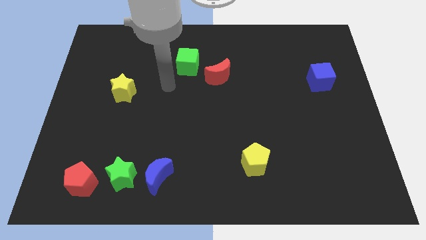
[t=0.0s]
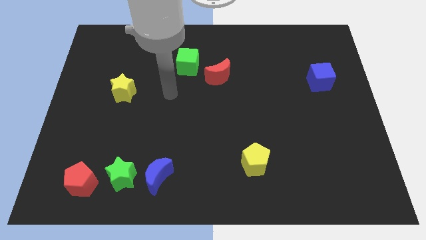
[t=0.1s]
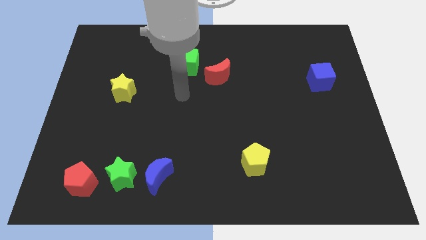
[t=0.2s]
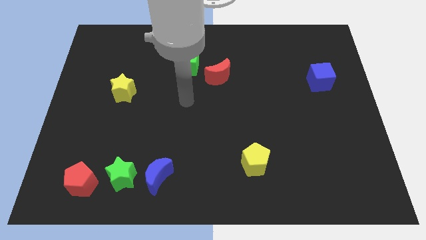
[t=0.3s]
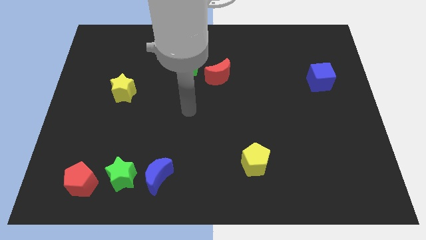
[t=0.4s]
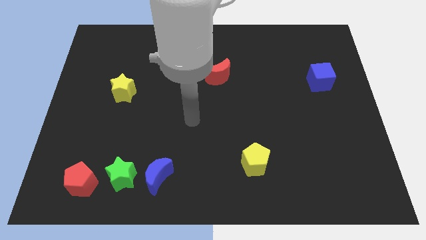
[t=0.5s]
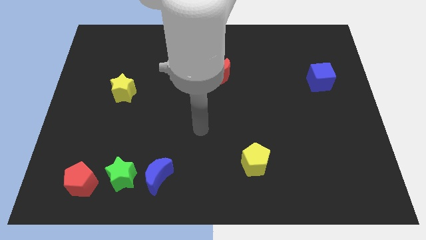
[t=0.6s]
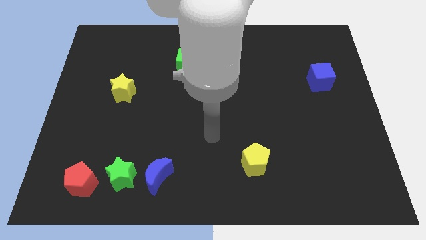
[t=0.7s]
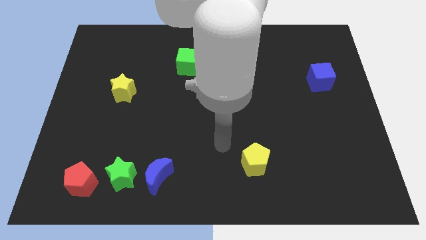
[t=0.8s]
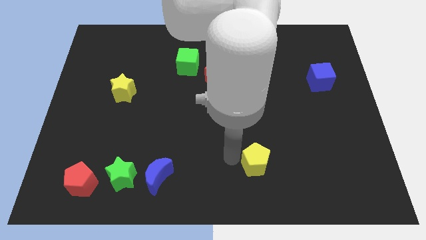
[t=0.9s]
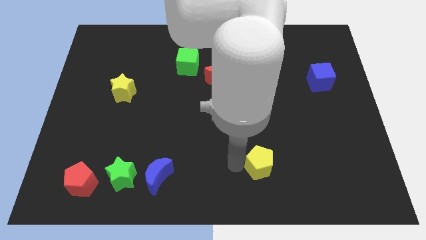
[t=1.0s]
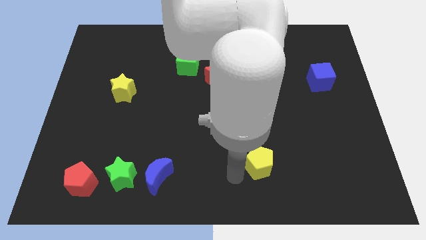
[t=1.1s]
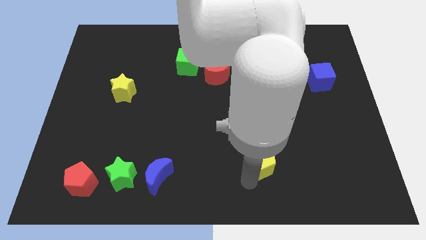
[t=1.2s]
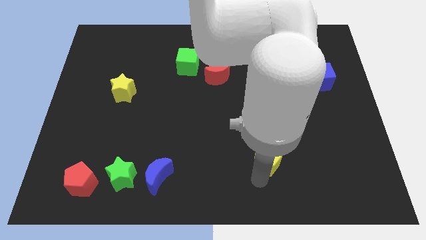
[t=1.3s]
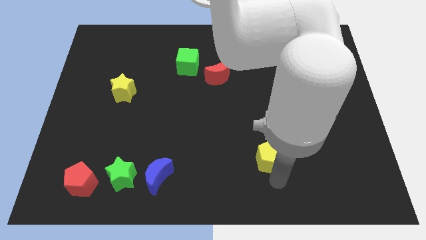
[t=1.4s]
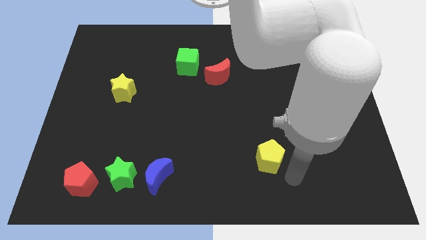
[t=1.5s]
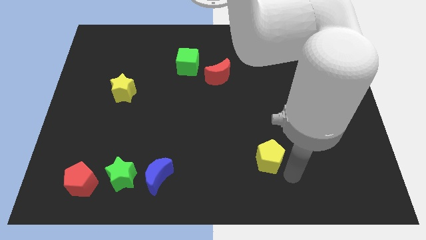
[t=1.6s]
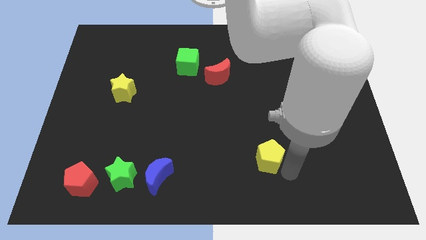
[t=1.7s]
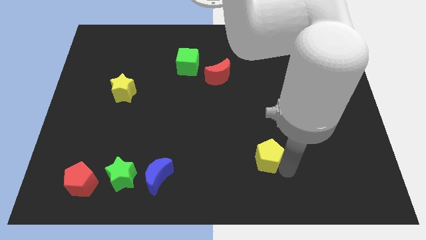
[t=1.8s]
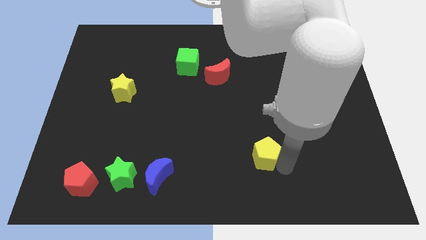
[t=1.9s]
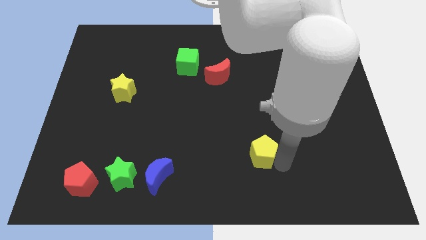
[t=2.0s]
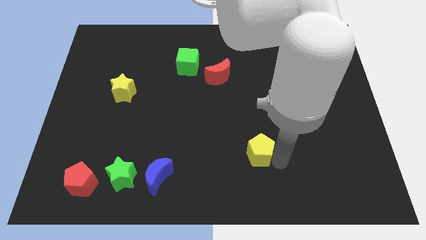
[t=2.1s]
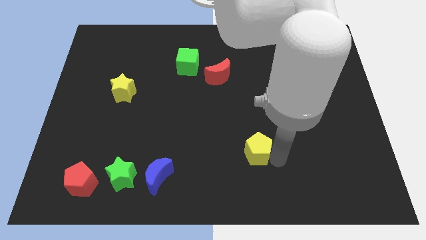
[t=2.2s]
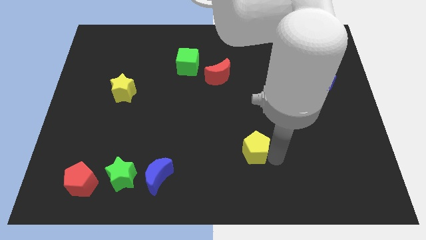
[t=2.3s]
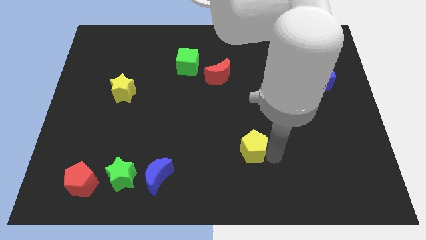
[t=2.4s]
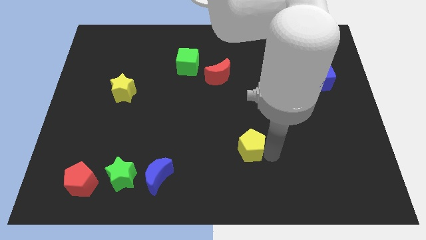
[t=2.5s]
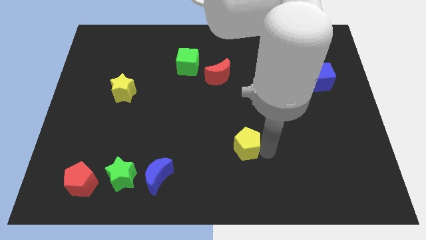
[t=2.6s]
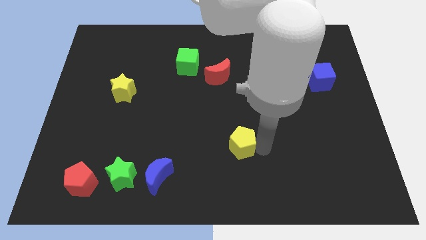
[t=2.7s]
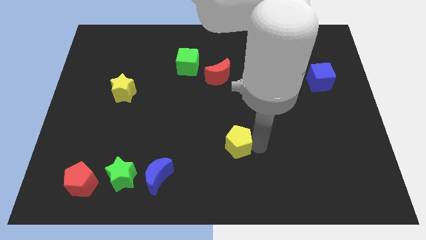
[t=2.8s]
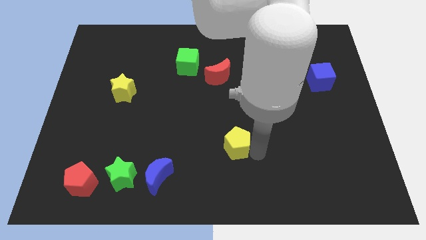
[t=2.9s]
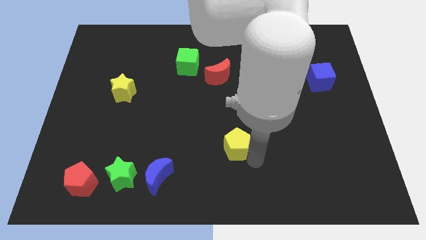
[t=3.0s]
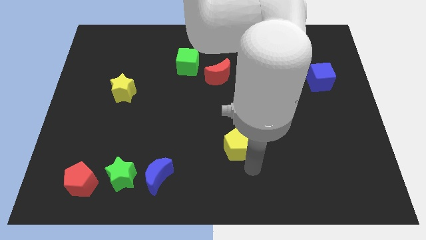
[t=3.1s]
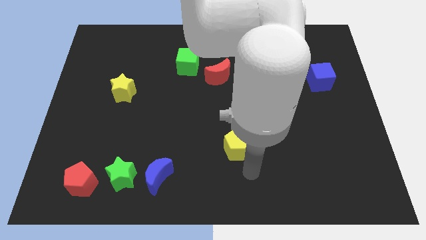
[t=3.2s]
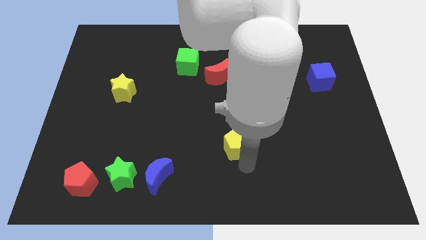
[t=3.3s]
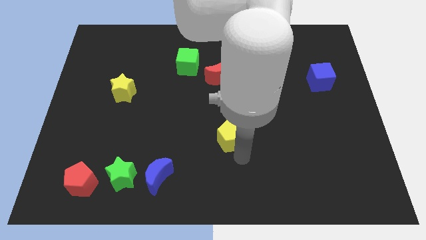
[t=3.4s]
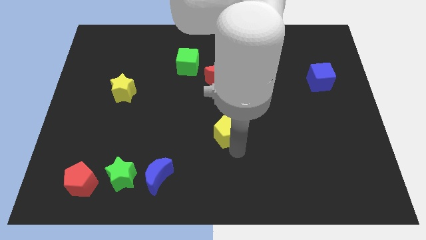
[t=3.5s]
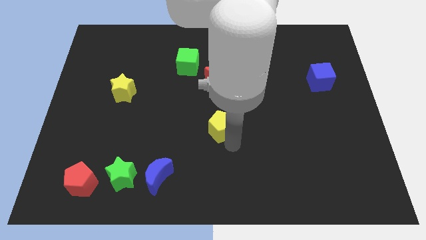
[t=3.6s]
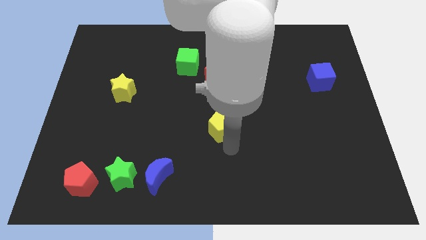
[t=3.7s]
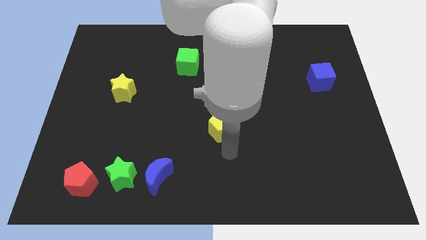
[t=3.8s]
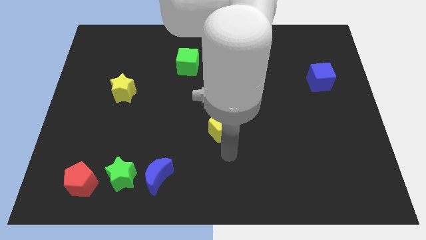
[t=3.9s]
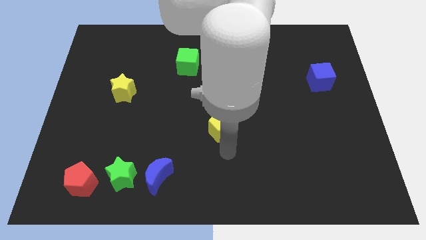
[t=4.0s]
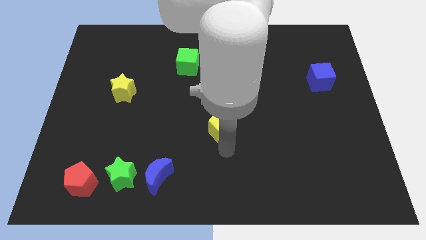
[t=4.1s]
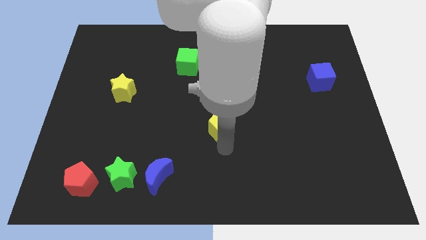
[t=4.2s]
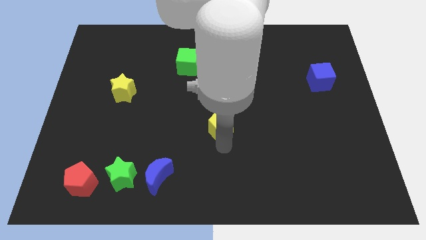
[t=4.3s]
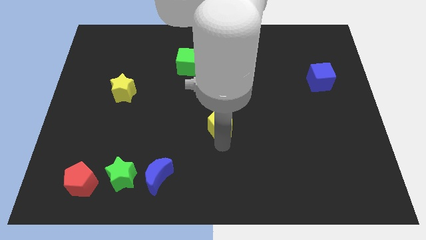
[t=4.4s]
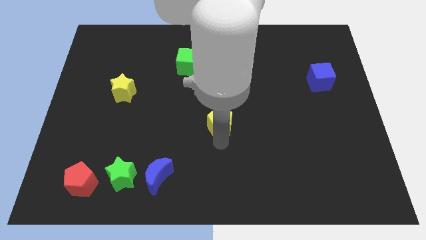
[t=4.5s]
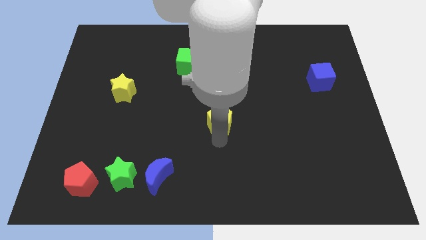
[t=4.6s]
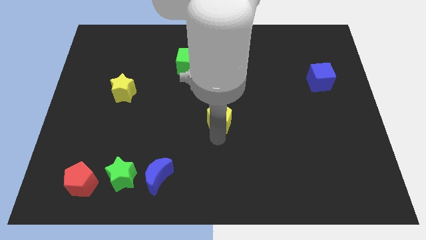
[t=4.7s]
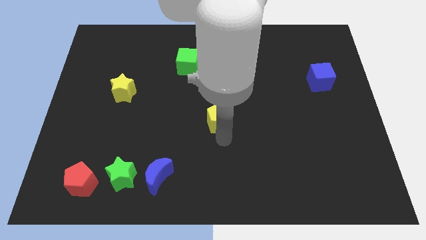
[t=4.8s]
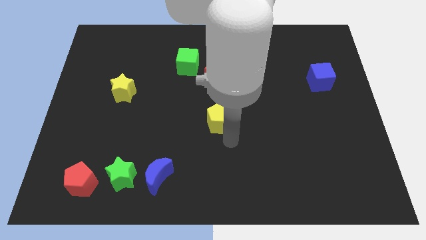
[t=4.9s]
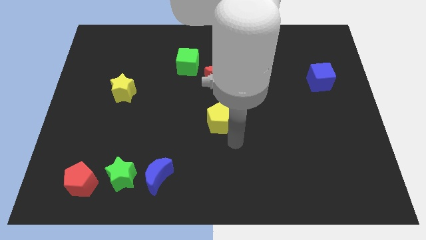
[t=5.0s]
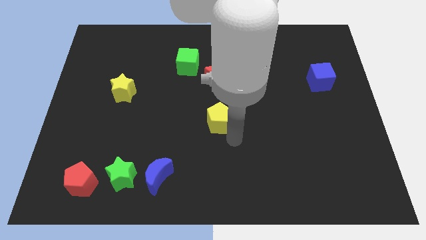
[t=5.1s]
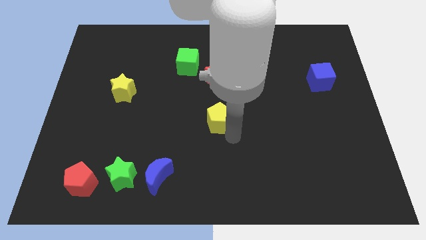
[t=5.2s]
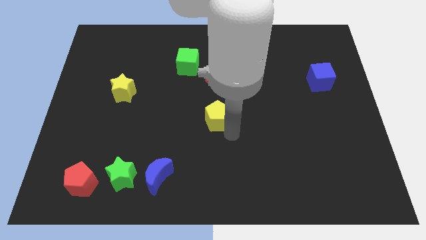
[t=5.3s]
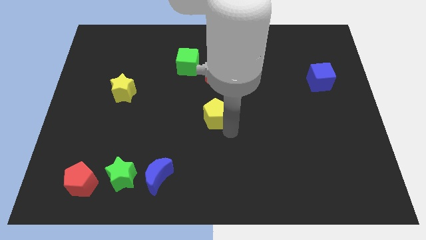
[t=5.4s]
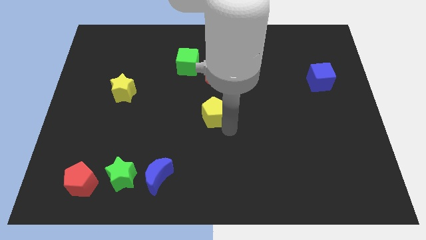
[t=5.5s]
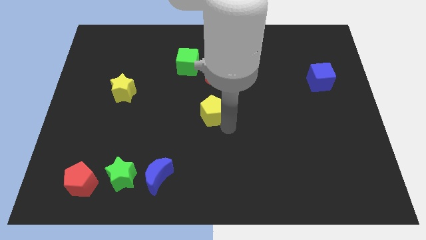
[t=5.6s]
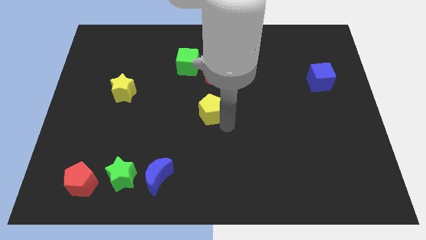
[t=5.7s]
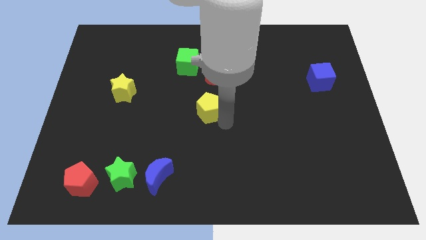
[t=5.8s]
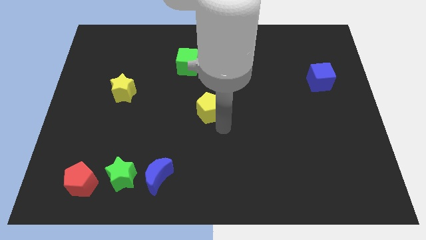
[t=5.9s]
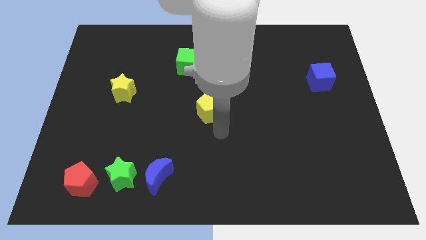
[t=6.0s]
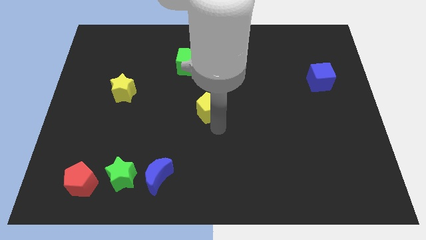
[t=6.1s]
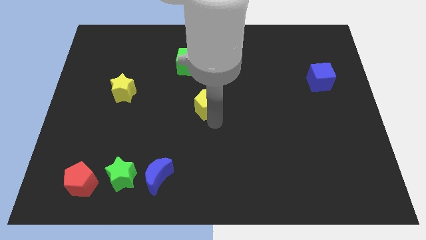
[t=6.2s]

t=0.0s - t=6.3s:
slide the yellow pentagon diagonally down and to the left of the red moon

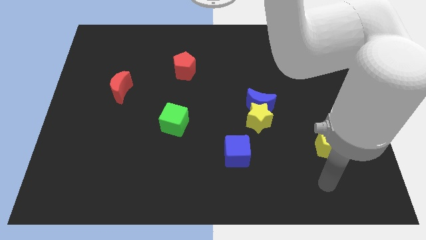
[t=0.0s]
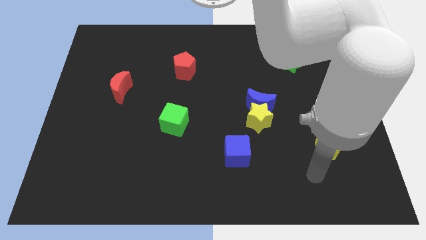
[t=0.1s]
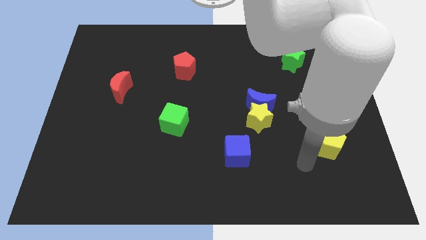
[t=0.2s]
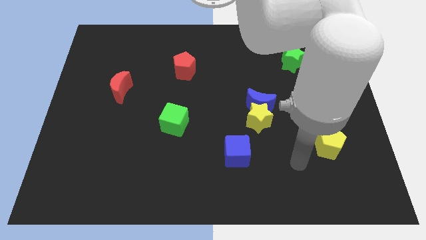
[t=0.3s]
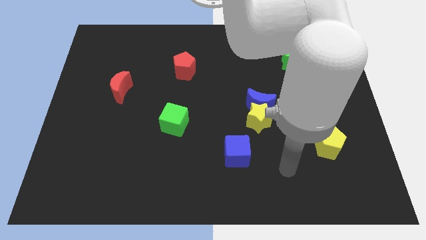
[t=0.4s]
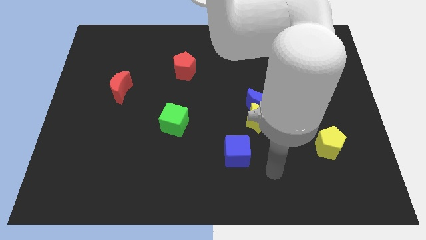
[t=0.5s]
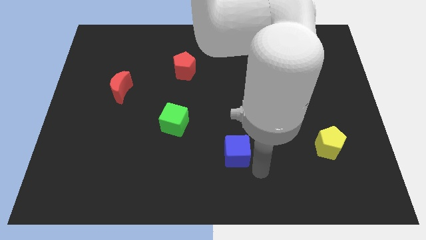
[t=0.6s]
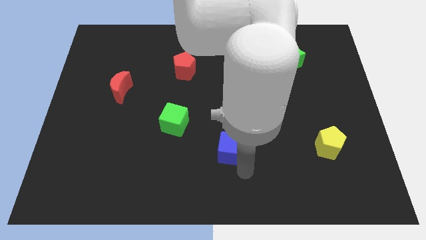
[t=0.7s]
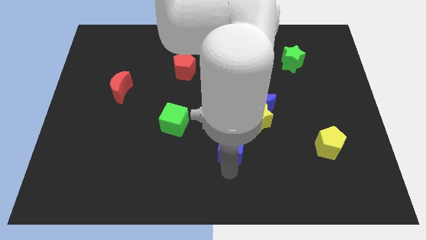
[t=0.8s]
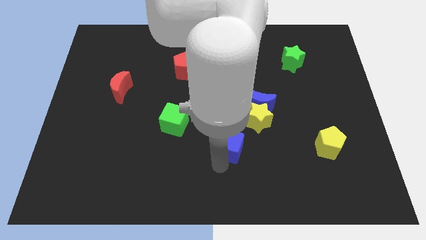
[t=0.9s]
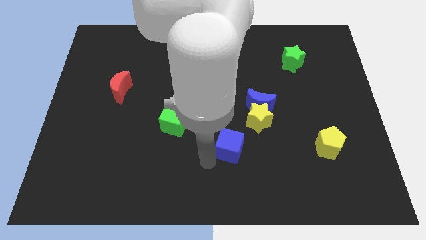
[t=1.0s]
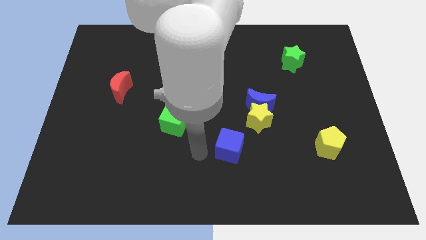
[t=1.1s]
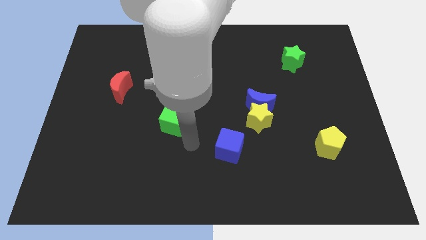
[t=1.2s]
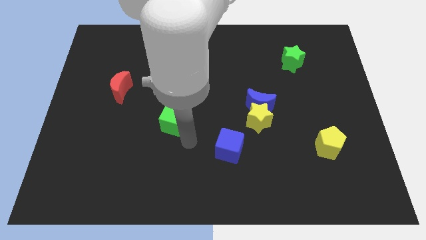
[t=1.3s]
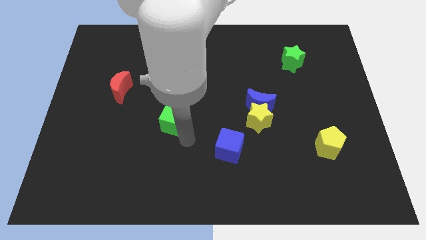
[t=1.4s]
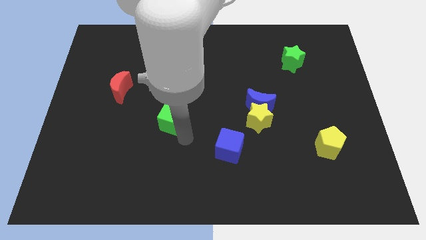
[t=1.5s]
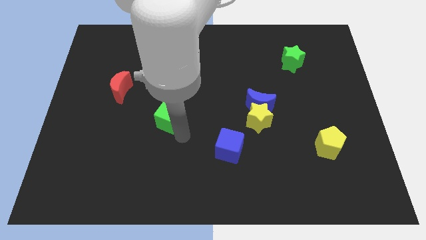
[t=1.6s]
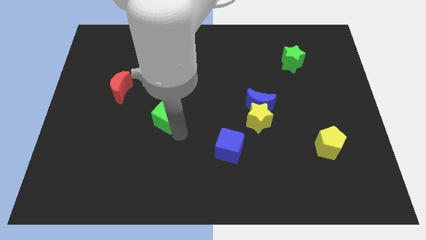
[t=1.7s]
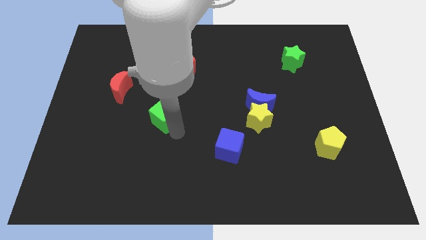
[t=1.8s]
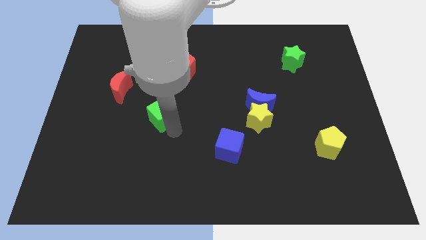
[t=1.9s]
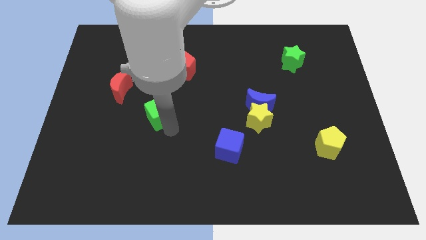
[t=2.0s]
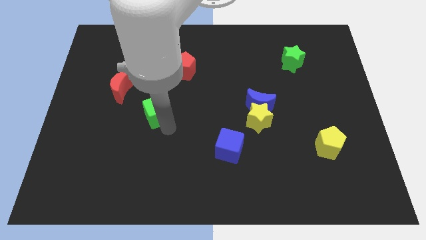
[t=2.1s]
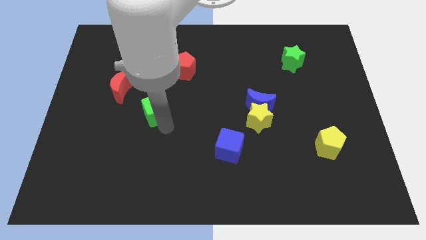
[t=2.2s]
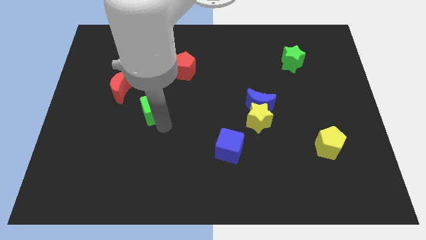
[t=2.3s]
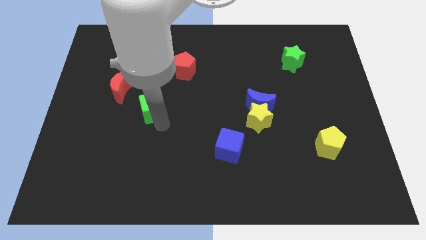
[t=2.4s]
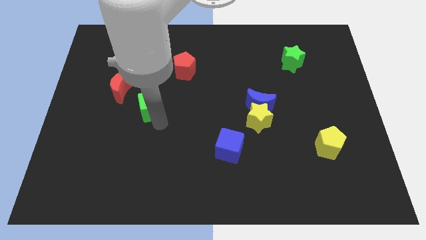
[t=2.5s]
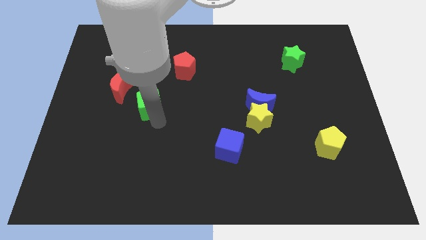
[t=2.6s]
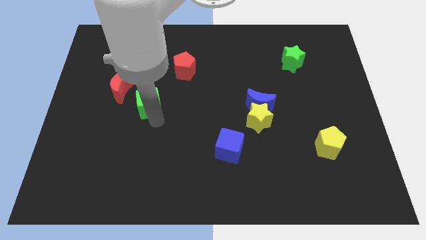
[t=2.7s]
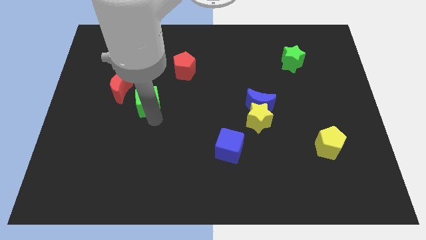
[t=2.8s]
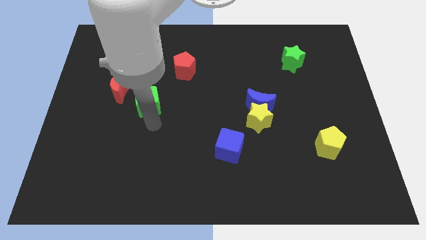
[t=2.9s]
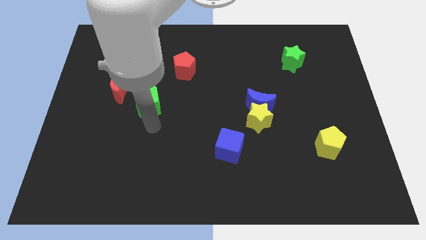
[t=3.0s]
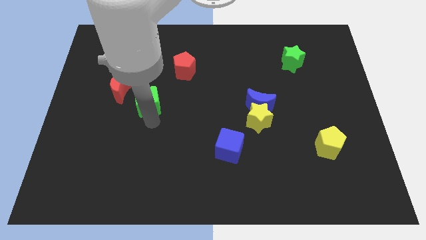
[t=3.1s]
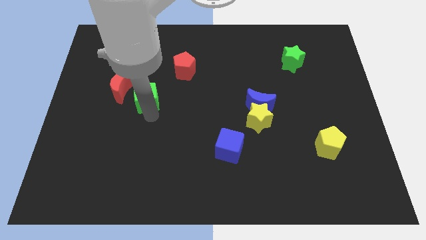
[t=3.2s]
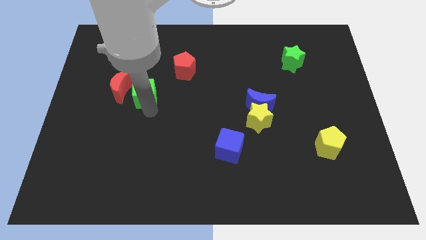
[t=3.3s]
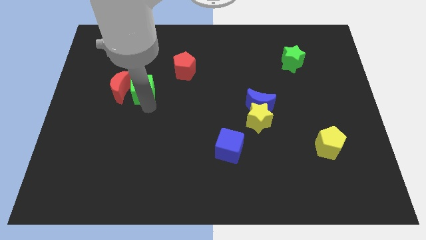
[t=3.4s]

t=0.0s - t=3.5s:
put the green cube to the top right of the red moon
